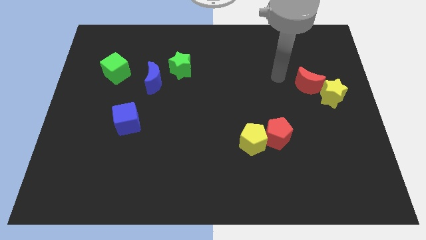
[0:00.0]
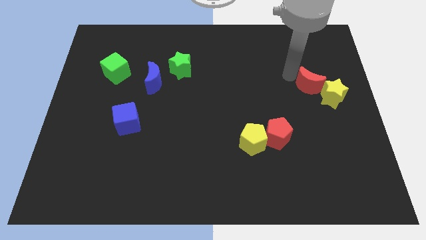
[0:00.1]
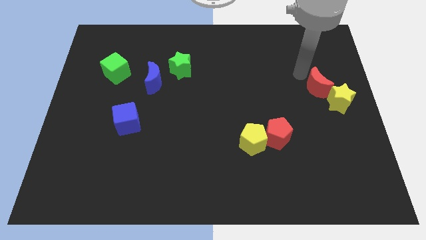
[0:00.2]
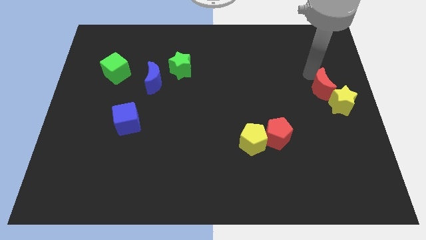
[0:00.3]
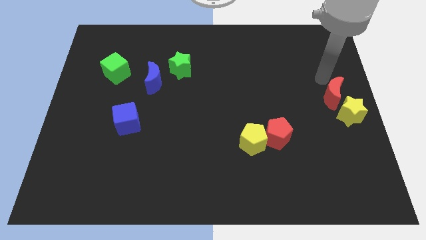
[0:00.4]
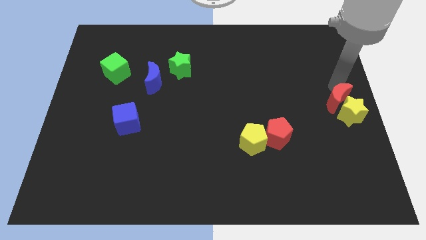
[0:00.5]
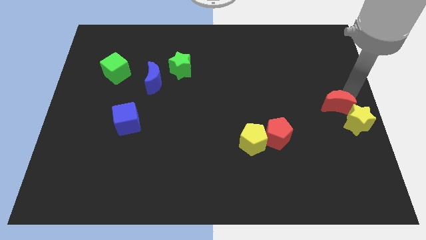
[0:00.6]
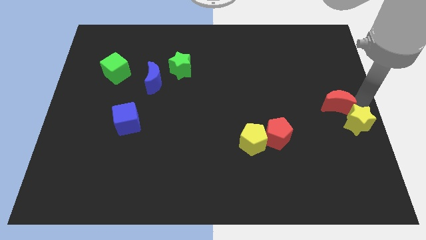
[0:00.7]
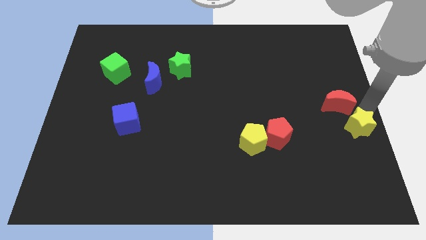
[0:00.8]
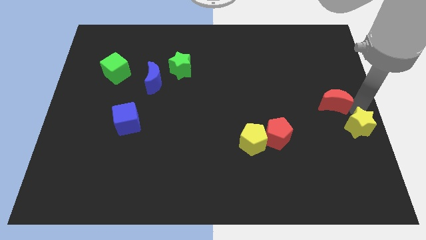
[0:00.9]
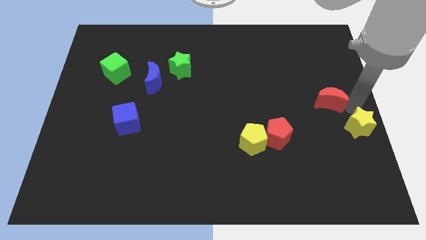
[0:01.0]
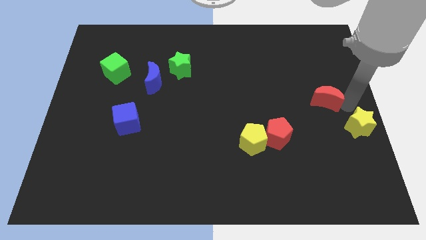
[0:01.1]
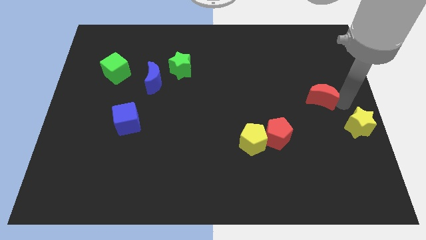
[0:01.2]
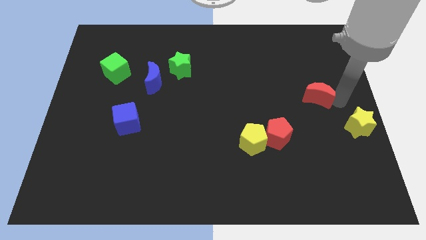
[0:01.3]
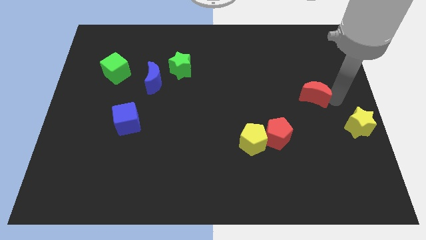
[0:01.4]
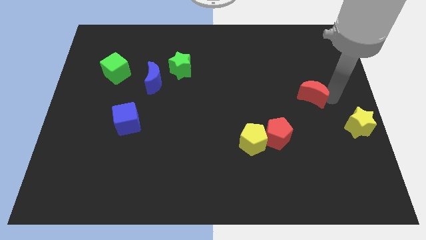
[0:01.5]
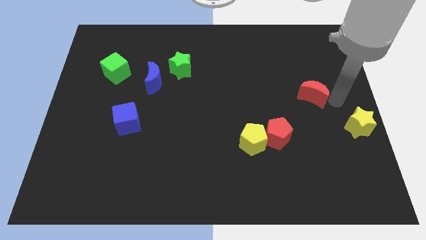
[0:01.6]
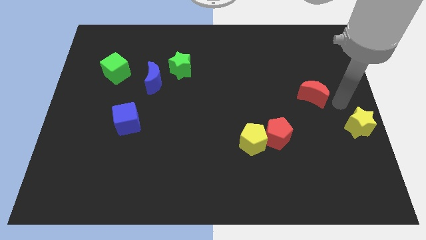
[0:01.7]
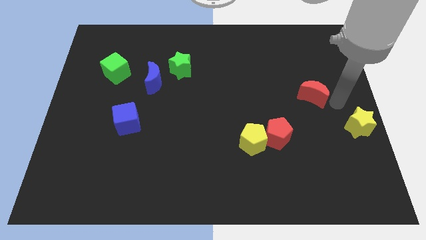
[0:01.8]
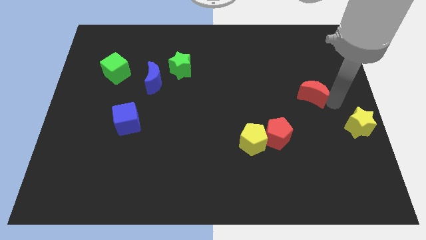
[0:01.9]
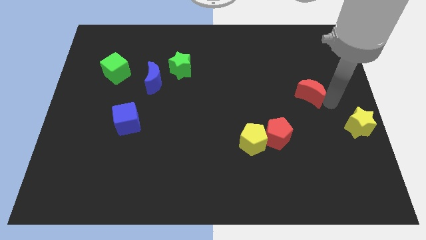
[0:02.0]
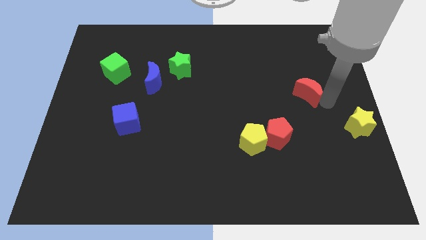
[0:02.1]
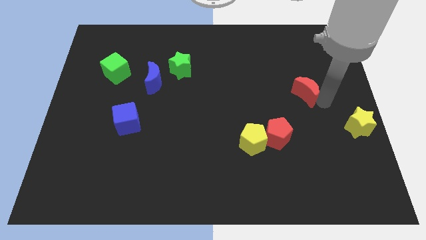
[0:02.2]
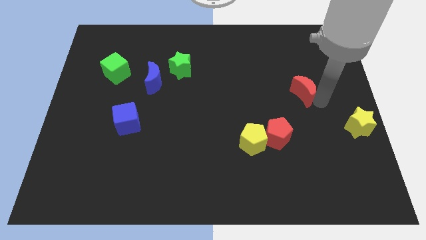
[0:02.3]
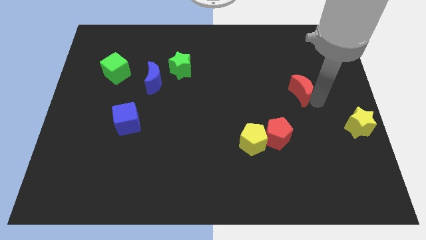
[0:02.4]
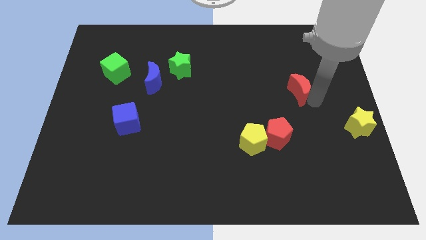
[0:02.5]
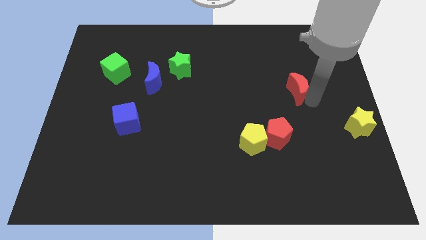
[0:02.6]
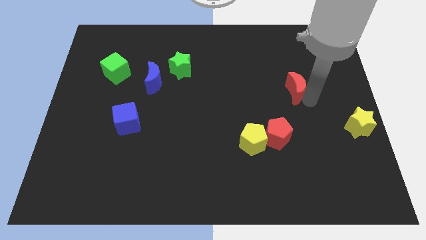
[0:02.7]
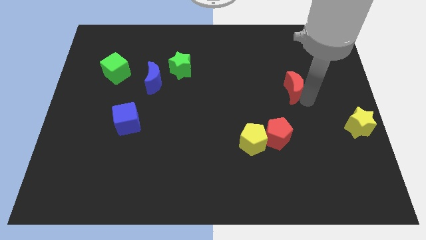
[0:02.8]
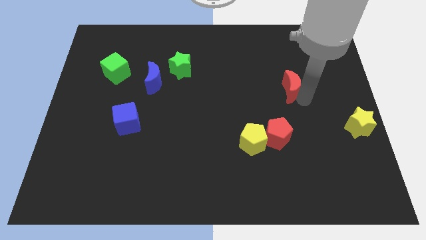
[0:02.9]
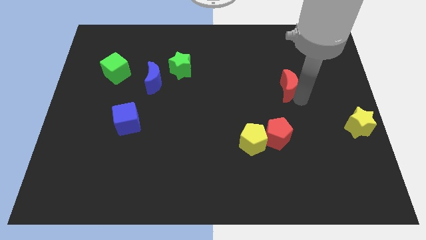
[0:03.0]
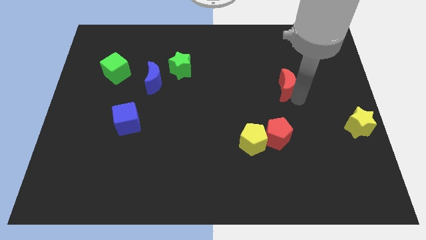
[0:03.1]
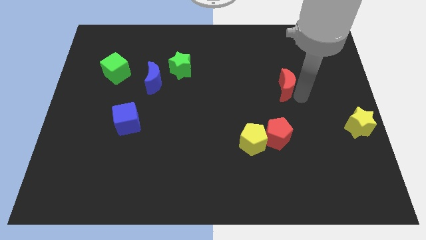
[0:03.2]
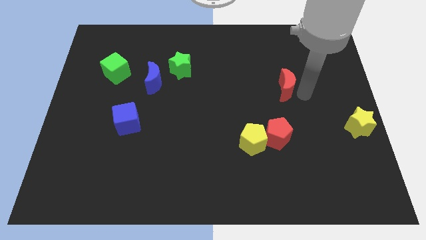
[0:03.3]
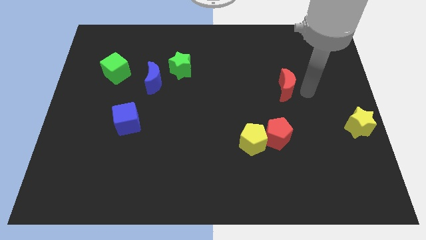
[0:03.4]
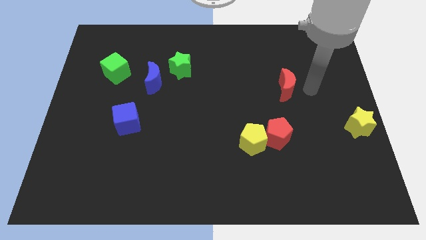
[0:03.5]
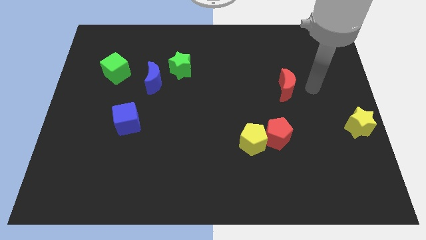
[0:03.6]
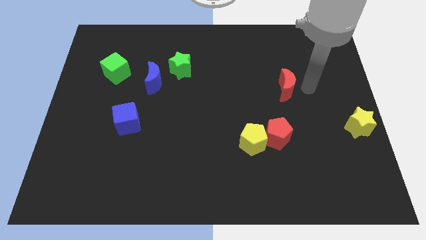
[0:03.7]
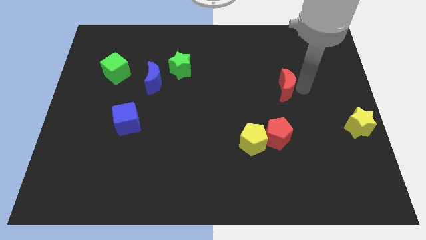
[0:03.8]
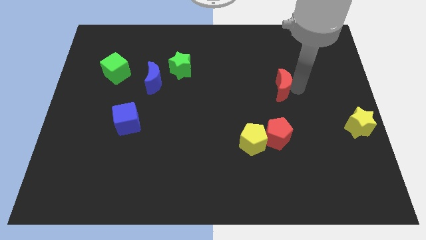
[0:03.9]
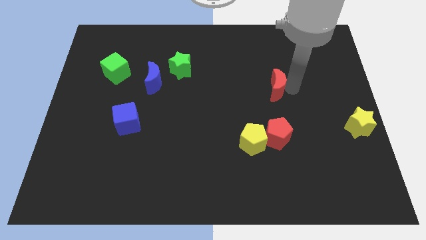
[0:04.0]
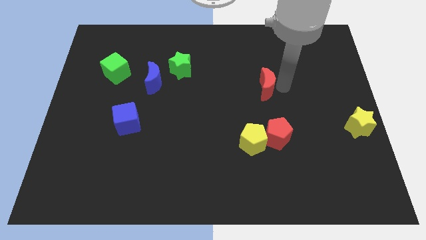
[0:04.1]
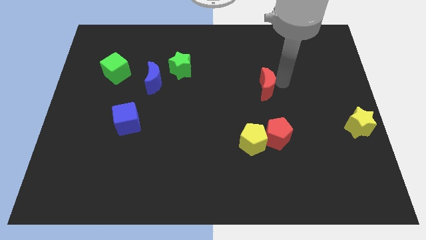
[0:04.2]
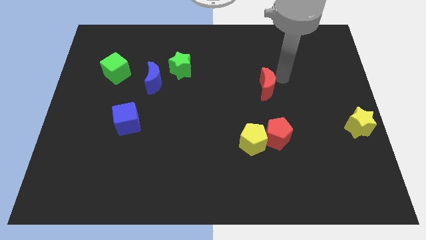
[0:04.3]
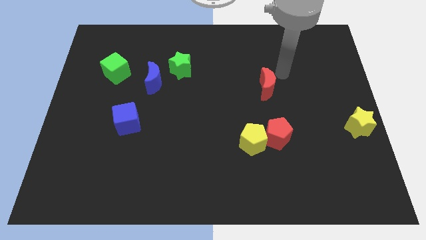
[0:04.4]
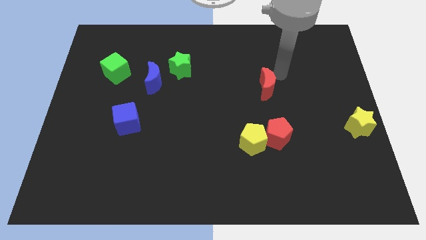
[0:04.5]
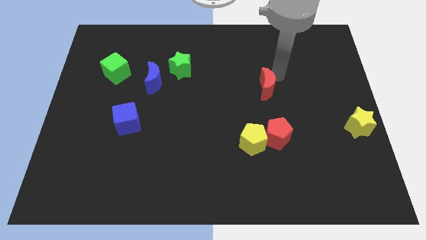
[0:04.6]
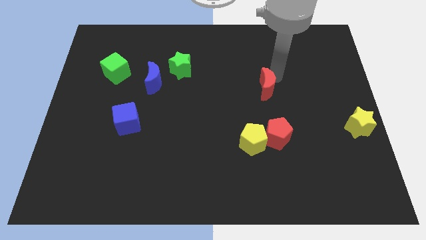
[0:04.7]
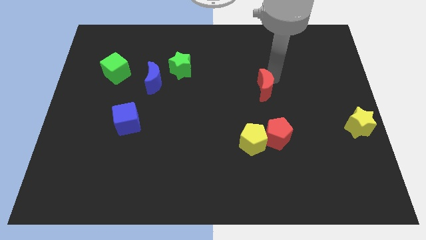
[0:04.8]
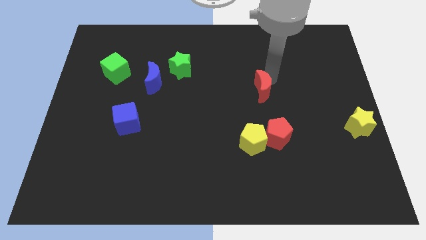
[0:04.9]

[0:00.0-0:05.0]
put the red moon above the yellow pentagon

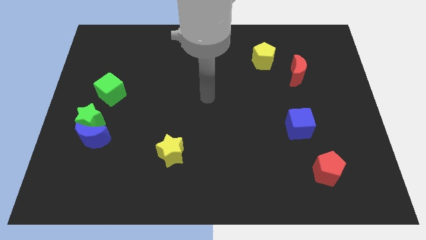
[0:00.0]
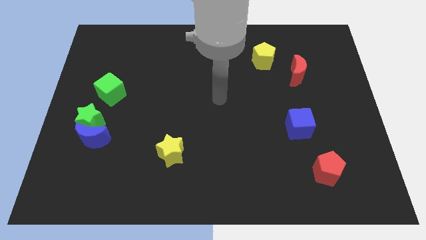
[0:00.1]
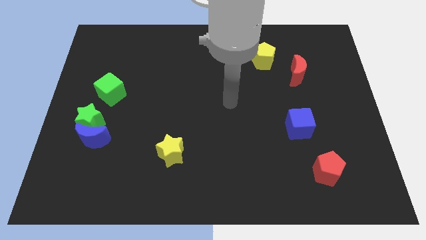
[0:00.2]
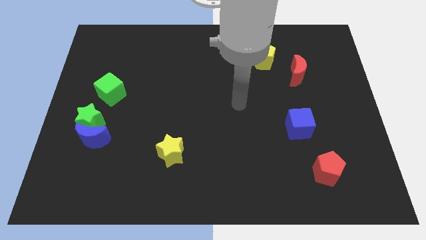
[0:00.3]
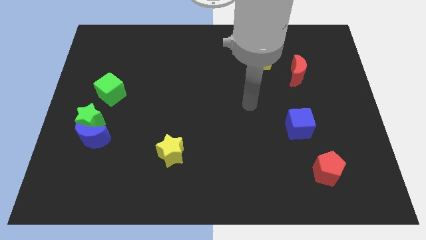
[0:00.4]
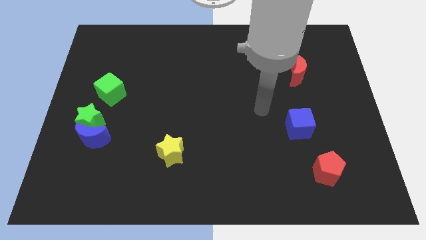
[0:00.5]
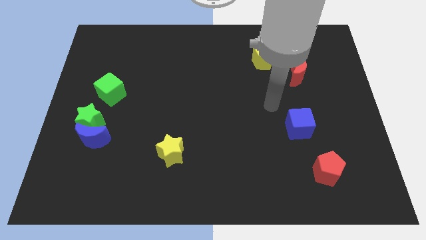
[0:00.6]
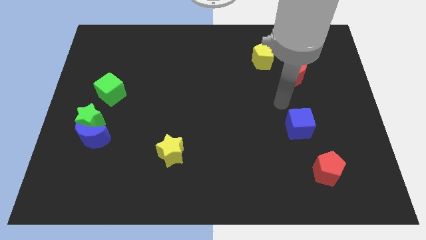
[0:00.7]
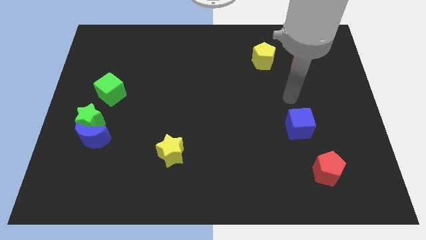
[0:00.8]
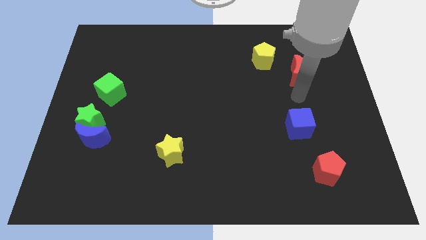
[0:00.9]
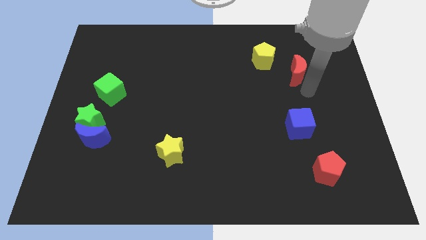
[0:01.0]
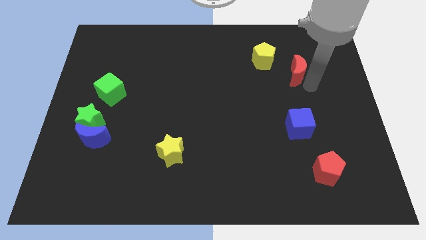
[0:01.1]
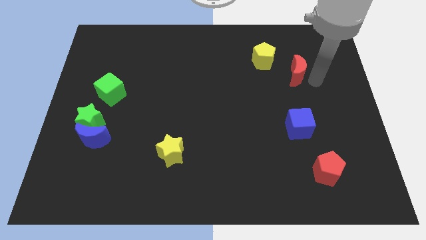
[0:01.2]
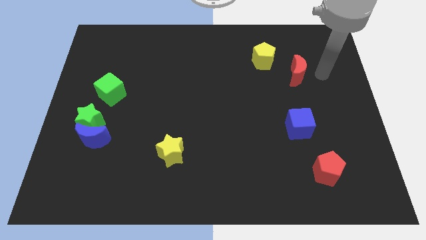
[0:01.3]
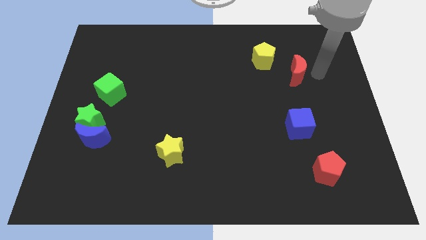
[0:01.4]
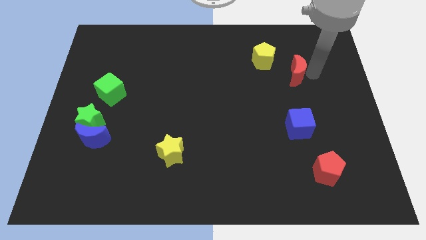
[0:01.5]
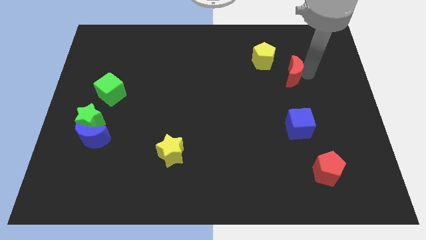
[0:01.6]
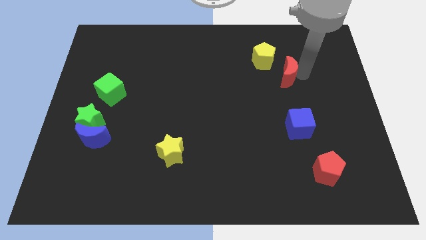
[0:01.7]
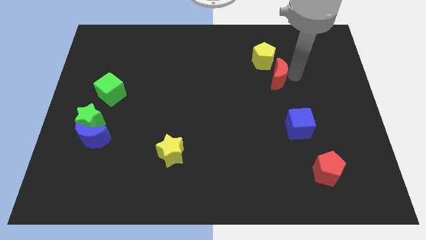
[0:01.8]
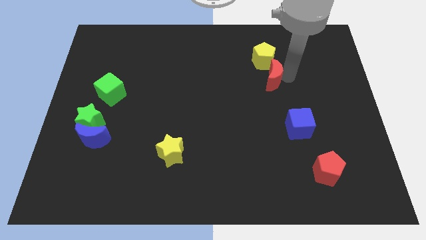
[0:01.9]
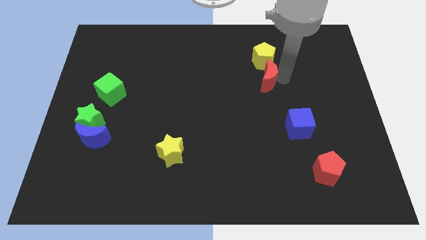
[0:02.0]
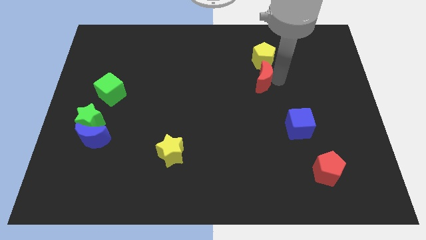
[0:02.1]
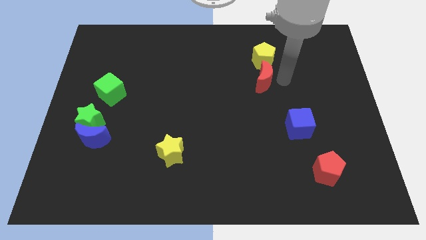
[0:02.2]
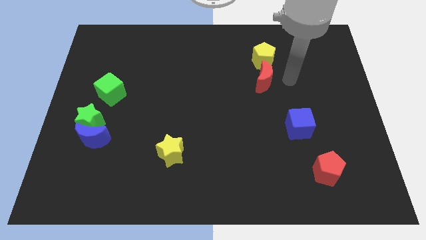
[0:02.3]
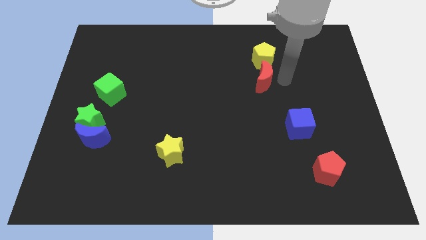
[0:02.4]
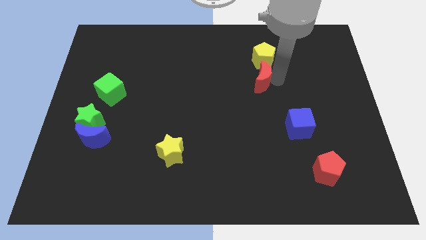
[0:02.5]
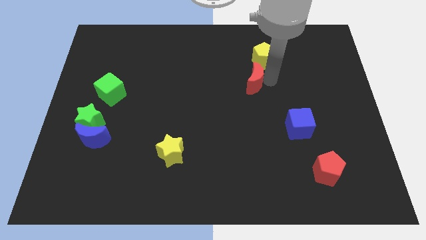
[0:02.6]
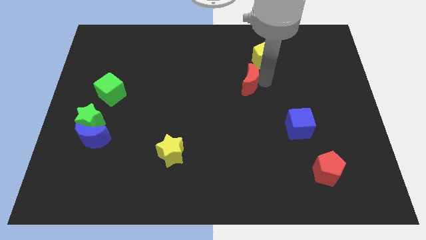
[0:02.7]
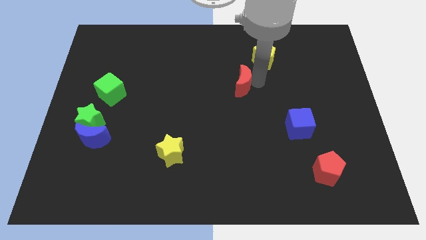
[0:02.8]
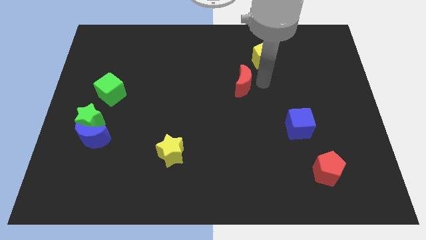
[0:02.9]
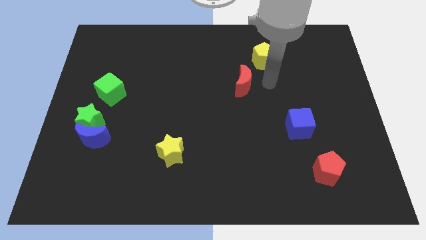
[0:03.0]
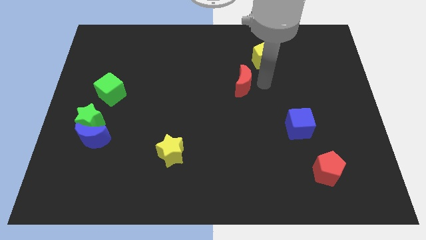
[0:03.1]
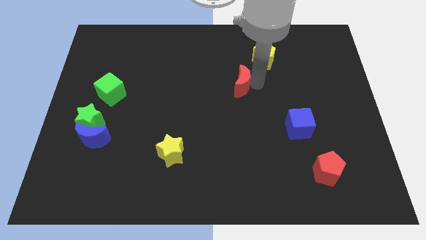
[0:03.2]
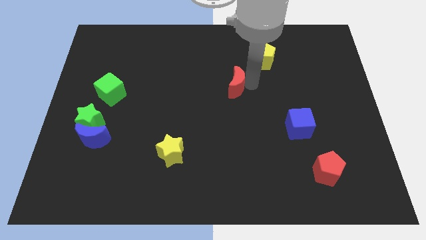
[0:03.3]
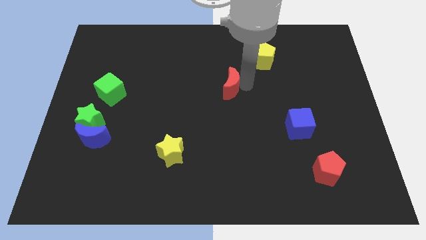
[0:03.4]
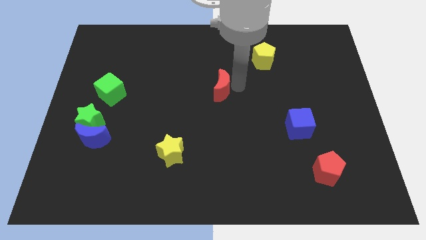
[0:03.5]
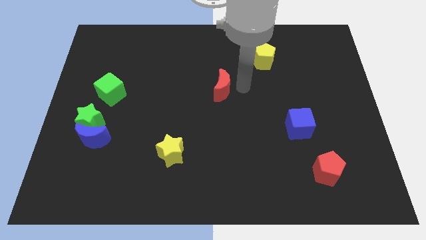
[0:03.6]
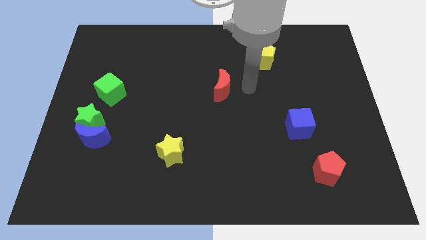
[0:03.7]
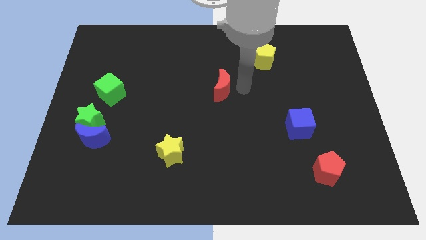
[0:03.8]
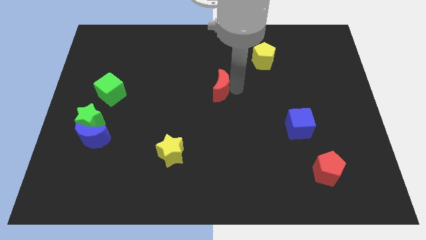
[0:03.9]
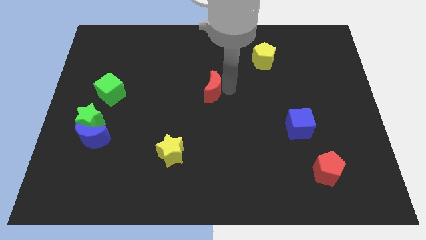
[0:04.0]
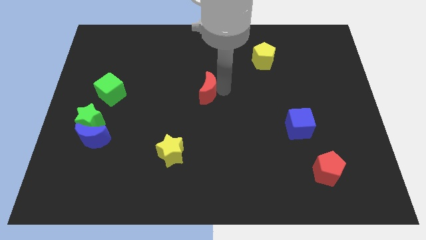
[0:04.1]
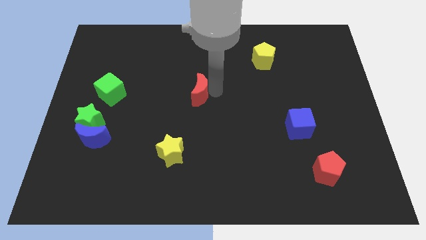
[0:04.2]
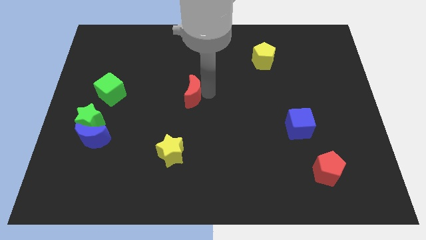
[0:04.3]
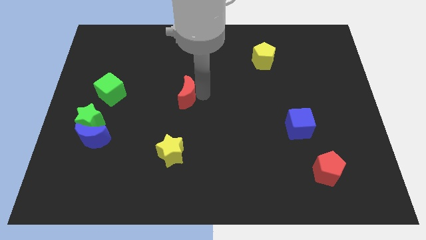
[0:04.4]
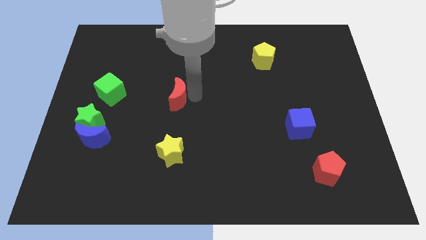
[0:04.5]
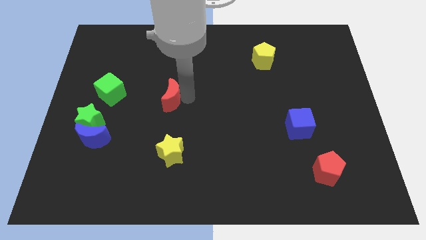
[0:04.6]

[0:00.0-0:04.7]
slide the red moon right of the green cube
